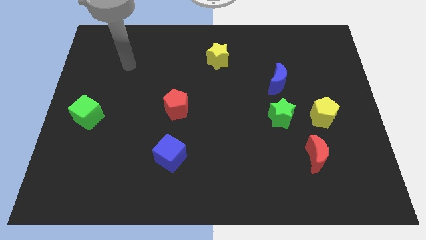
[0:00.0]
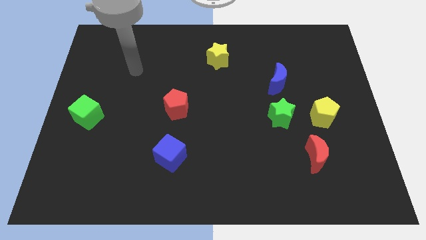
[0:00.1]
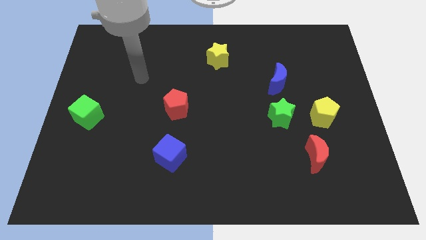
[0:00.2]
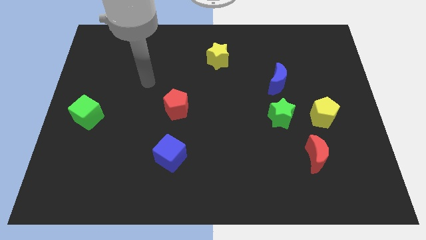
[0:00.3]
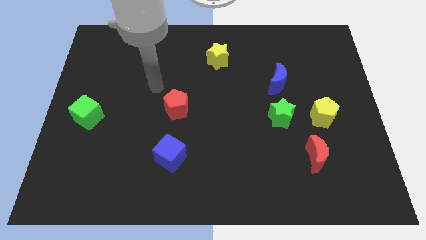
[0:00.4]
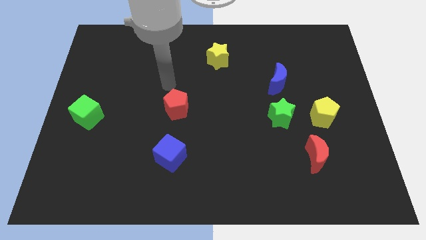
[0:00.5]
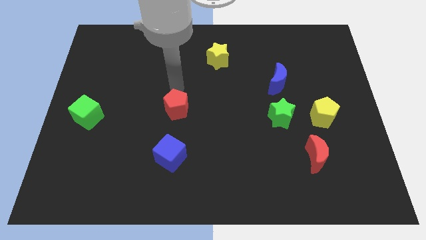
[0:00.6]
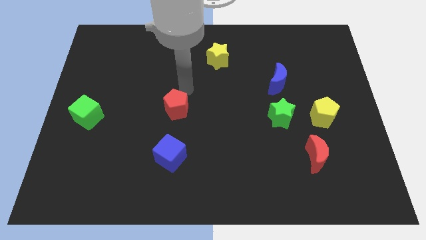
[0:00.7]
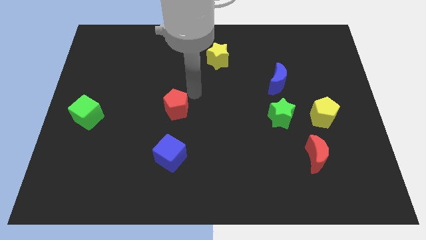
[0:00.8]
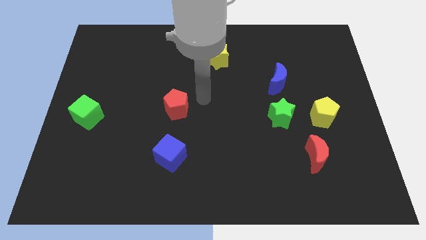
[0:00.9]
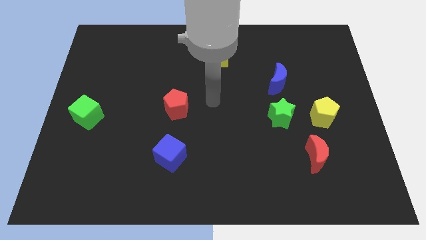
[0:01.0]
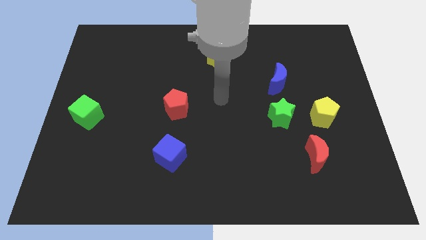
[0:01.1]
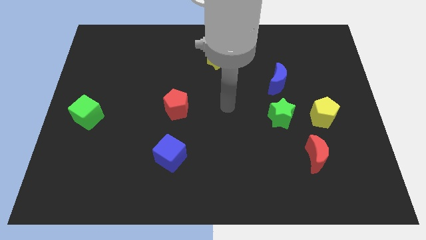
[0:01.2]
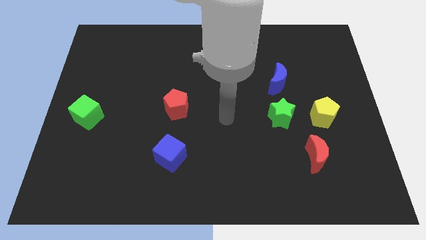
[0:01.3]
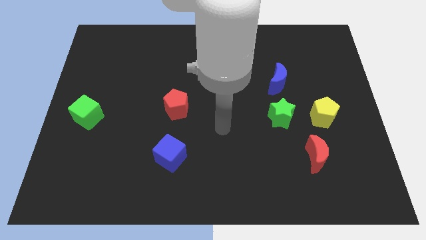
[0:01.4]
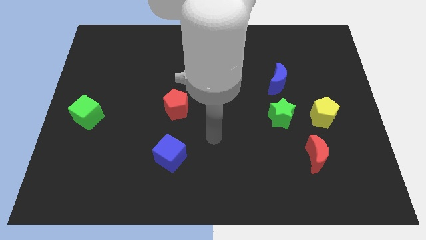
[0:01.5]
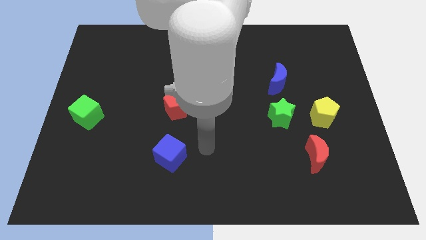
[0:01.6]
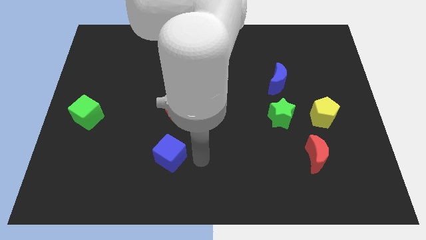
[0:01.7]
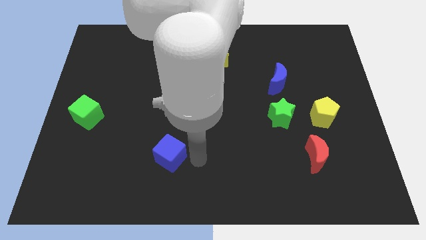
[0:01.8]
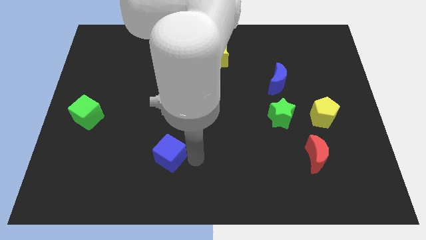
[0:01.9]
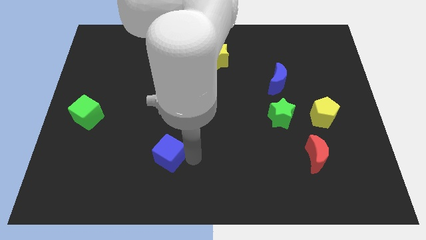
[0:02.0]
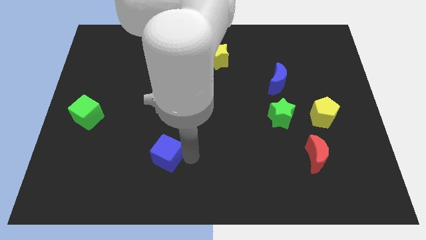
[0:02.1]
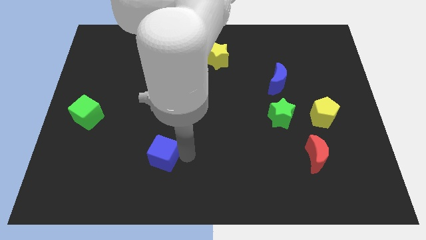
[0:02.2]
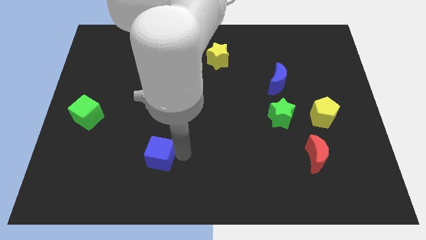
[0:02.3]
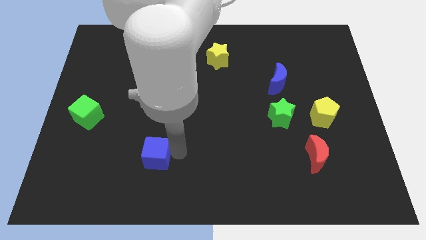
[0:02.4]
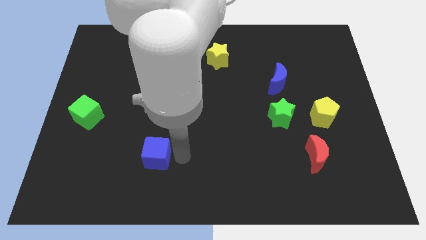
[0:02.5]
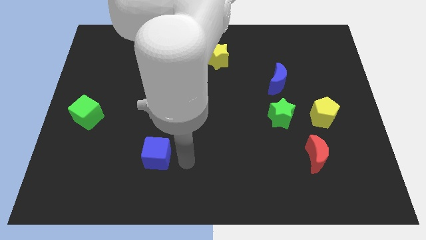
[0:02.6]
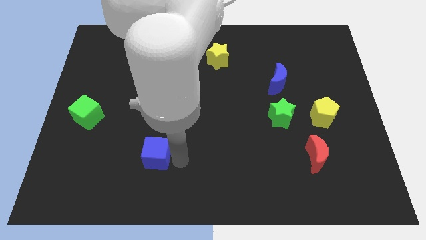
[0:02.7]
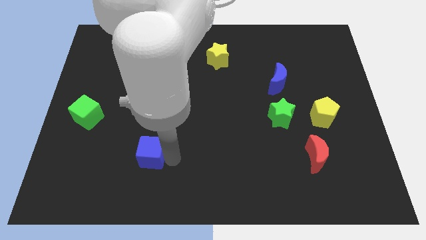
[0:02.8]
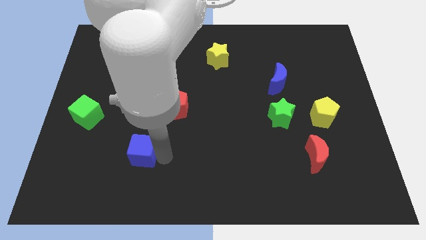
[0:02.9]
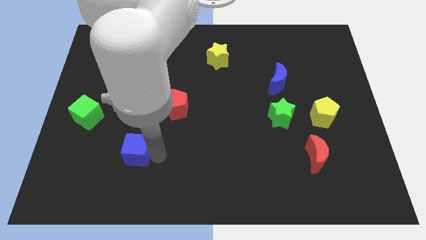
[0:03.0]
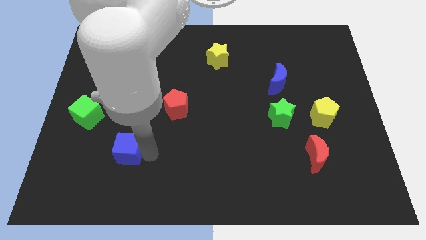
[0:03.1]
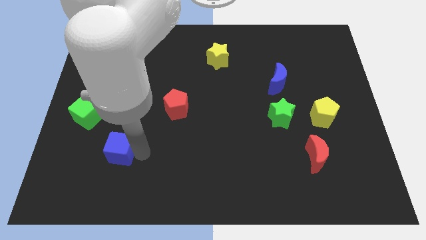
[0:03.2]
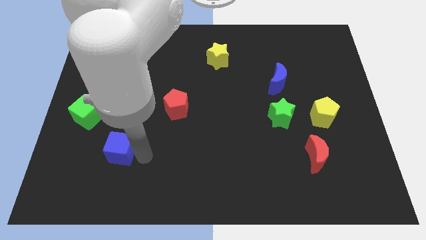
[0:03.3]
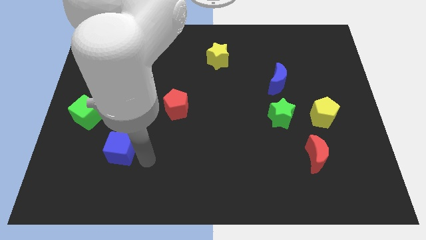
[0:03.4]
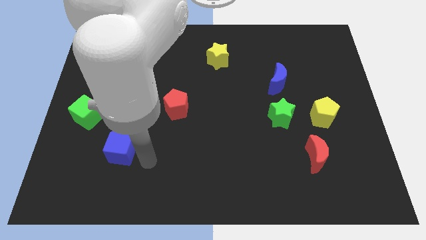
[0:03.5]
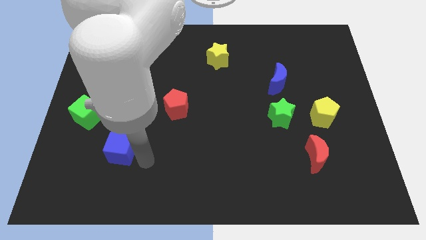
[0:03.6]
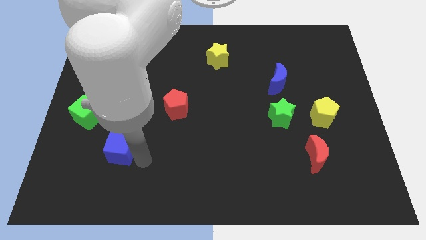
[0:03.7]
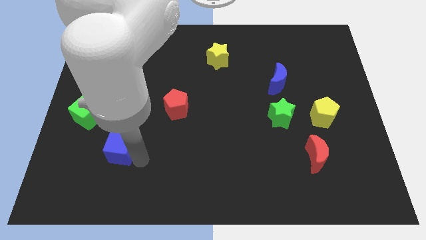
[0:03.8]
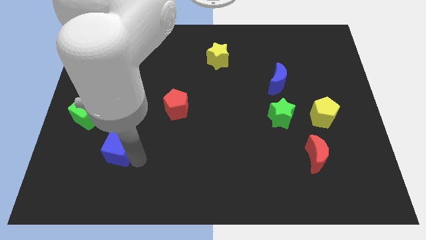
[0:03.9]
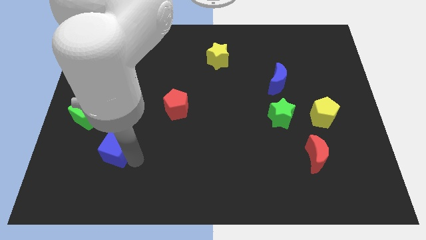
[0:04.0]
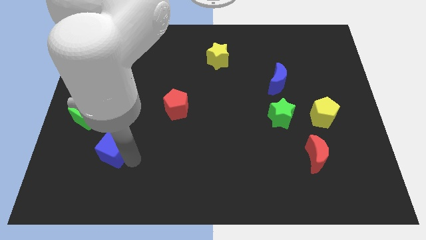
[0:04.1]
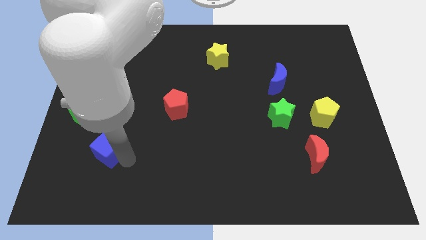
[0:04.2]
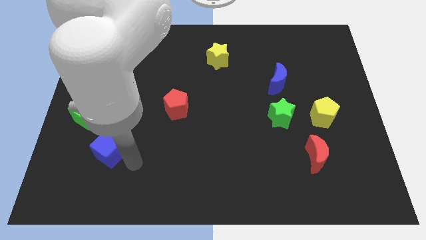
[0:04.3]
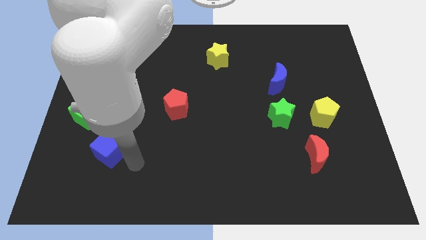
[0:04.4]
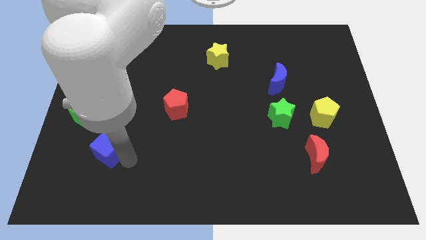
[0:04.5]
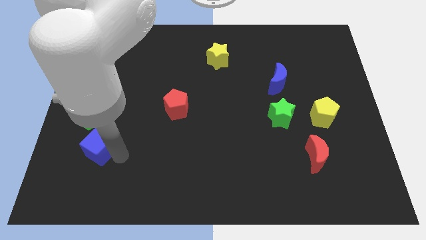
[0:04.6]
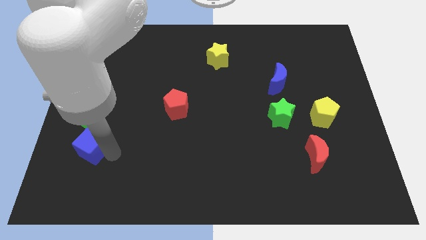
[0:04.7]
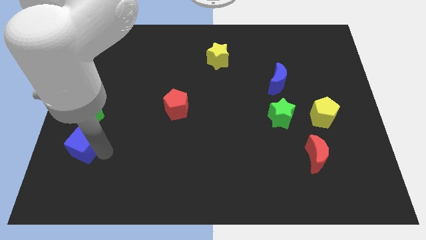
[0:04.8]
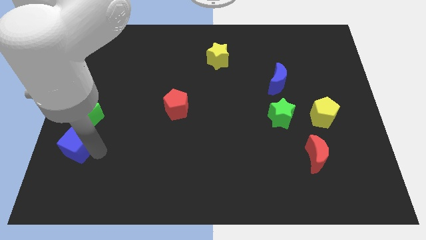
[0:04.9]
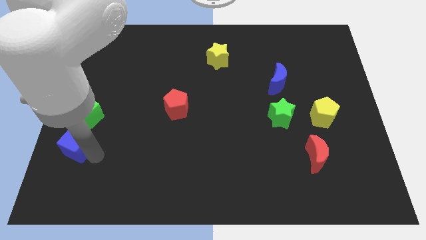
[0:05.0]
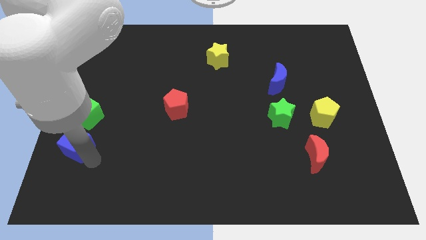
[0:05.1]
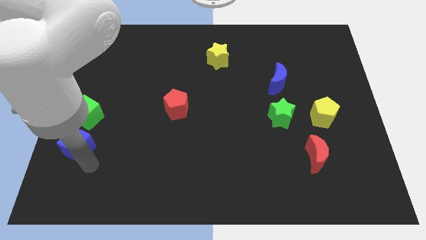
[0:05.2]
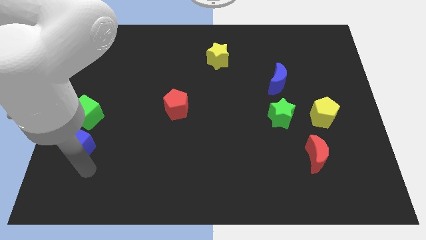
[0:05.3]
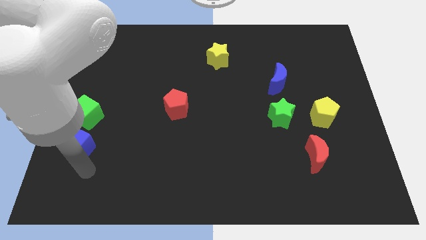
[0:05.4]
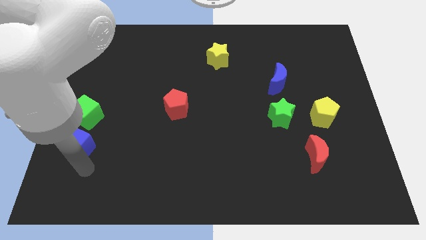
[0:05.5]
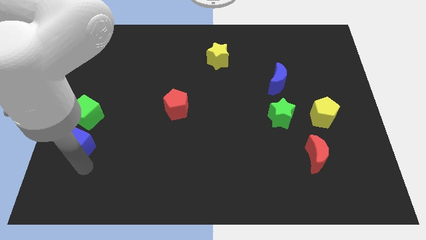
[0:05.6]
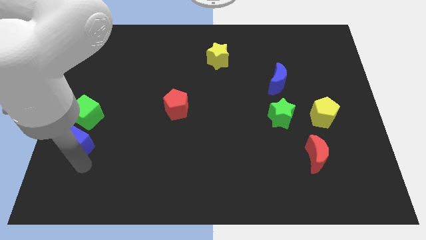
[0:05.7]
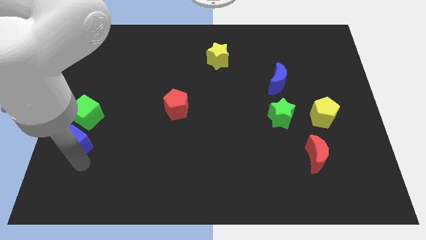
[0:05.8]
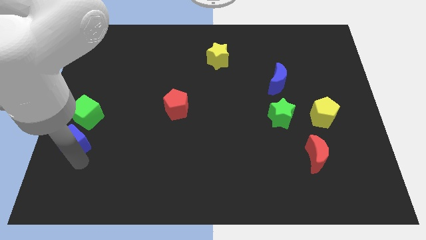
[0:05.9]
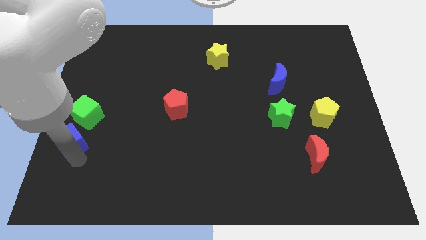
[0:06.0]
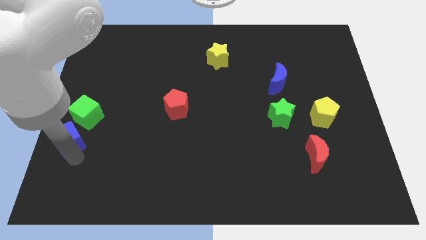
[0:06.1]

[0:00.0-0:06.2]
move the blue cube to the left side of the board
